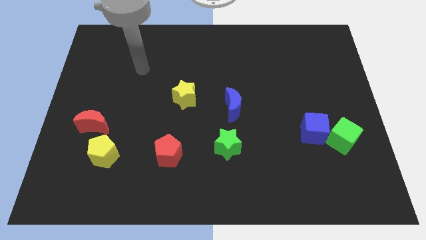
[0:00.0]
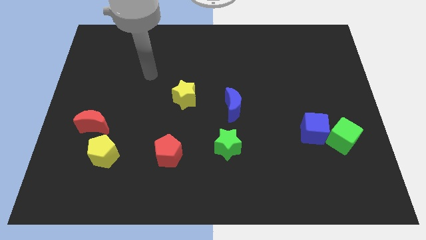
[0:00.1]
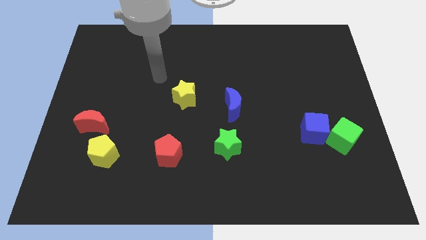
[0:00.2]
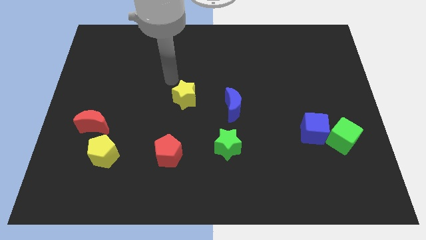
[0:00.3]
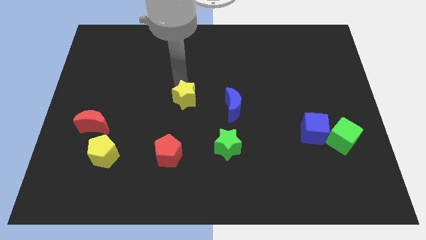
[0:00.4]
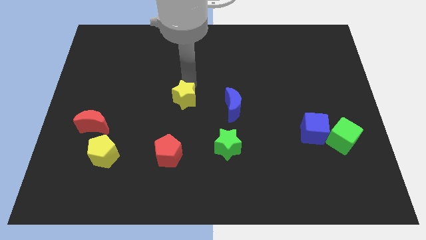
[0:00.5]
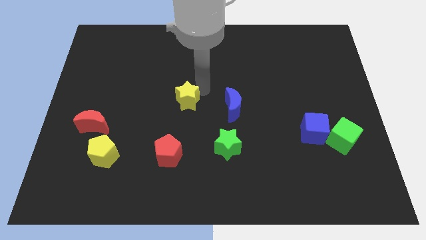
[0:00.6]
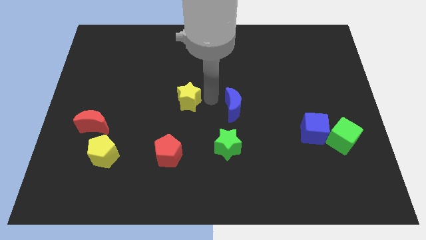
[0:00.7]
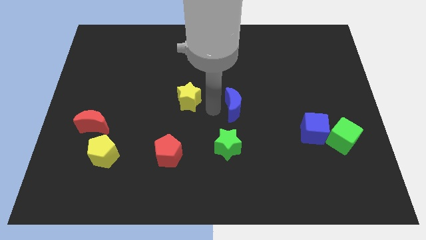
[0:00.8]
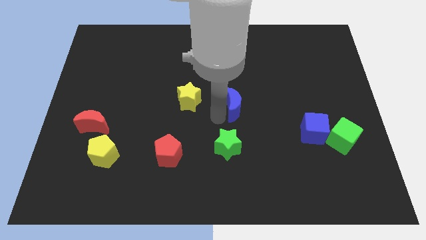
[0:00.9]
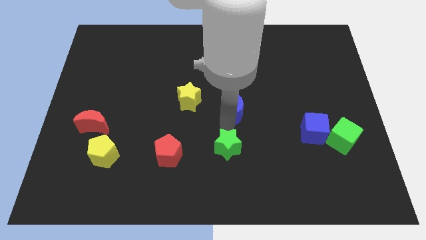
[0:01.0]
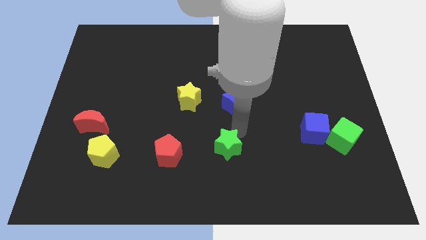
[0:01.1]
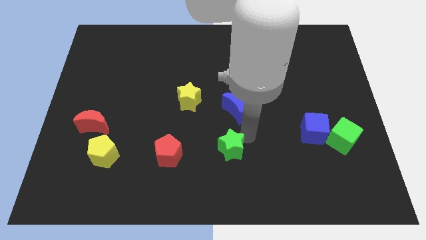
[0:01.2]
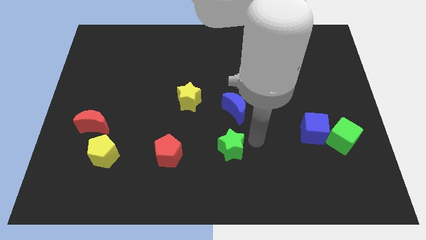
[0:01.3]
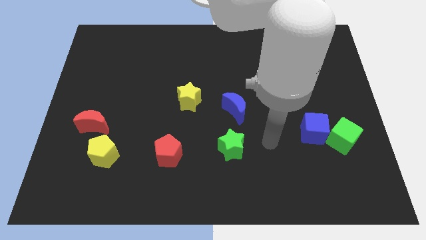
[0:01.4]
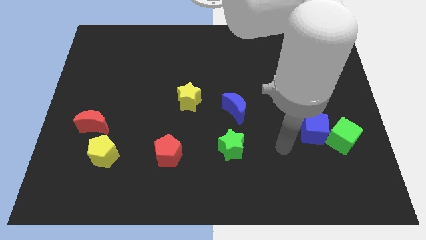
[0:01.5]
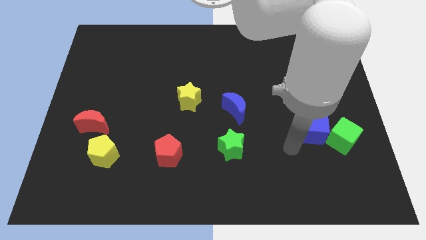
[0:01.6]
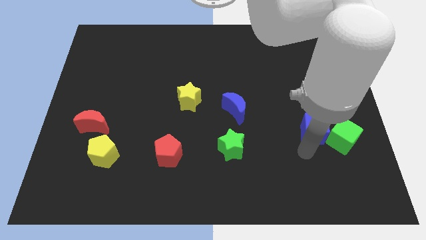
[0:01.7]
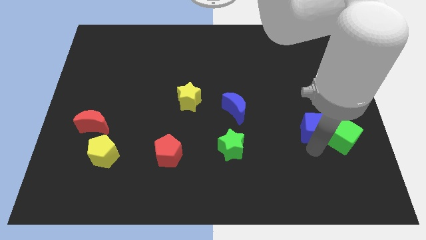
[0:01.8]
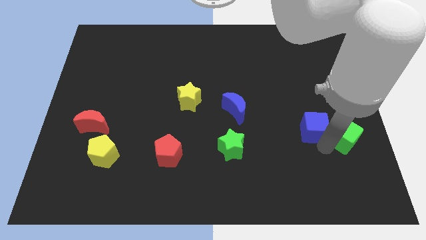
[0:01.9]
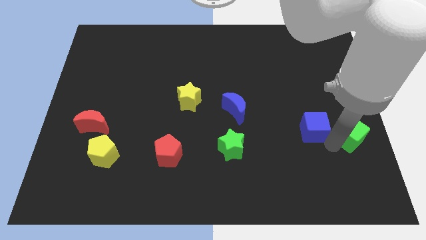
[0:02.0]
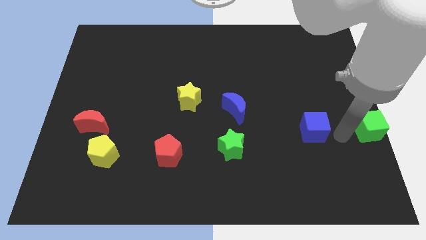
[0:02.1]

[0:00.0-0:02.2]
move the blue cube away from the green cube

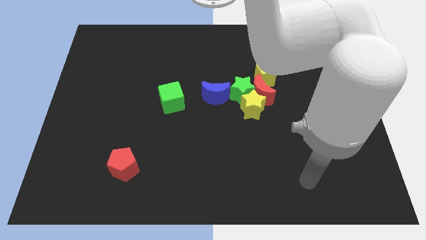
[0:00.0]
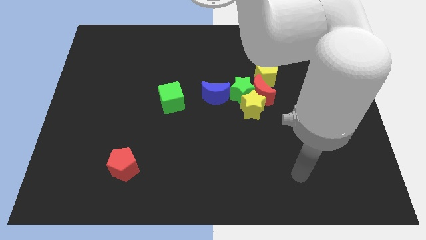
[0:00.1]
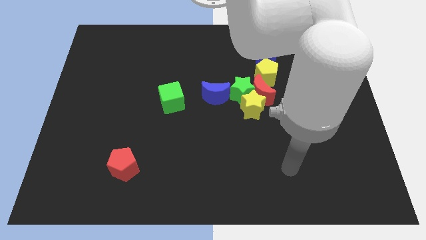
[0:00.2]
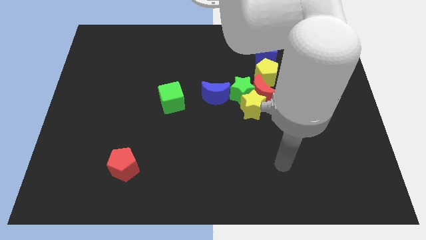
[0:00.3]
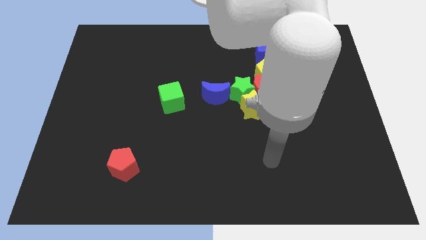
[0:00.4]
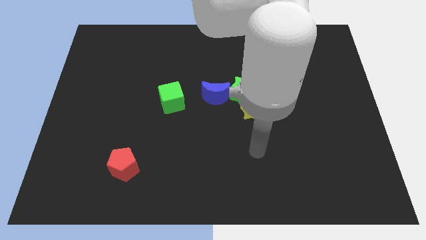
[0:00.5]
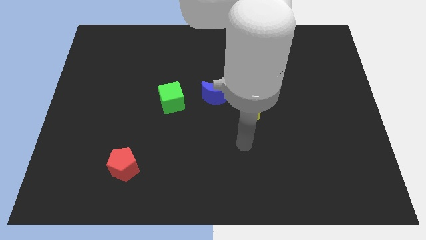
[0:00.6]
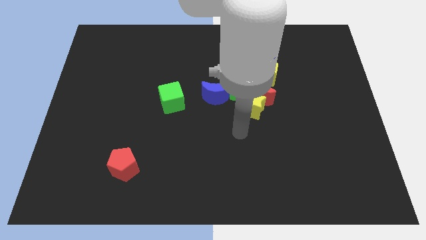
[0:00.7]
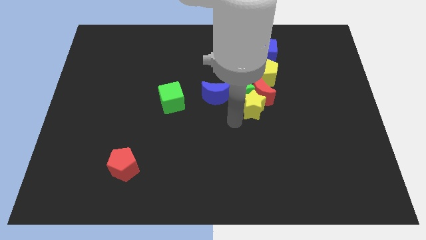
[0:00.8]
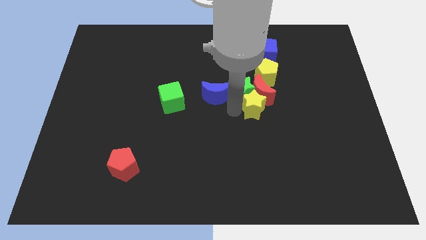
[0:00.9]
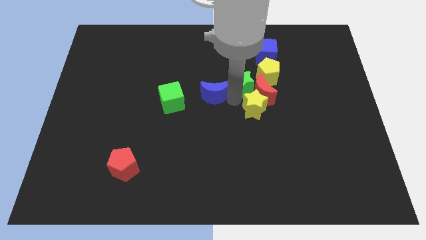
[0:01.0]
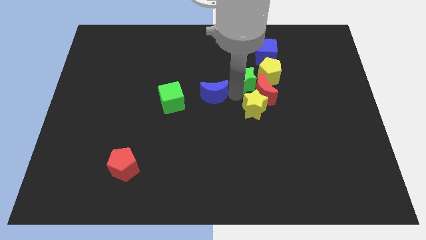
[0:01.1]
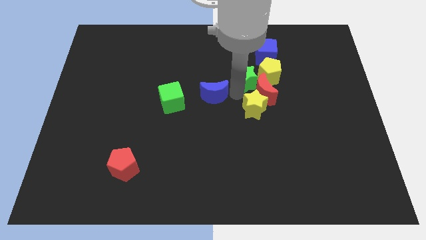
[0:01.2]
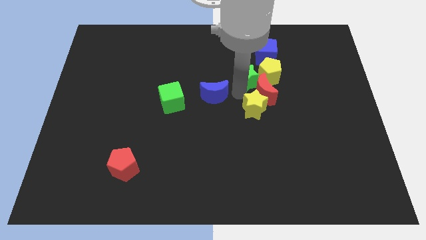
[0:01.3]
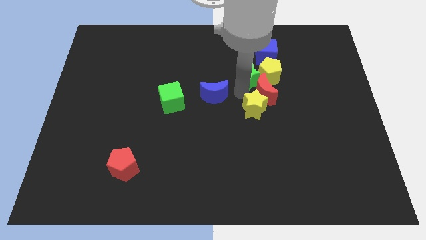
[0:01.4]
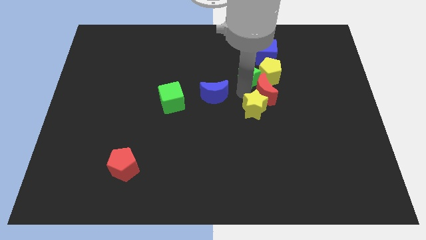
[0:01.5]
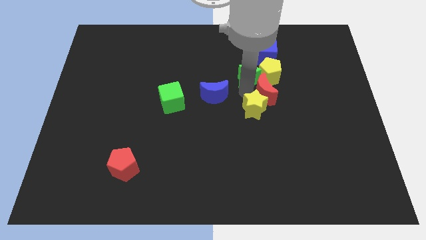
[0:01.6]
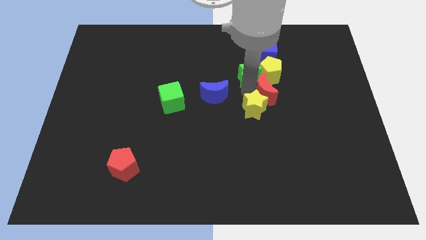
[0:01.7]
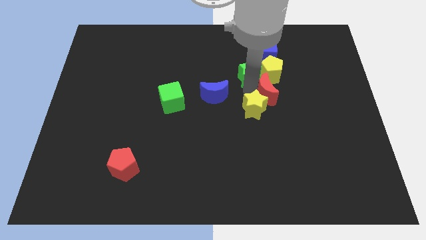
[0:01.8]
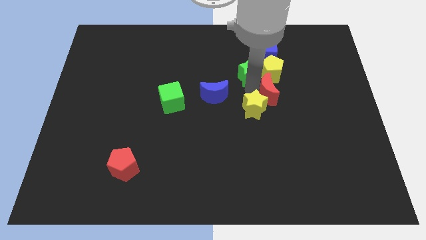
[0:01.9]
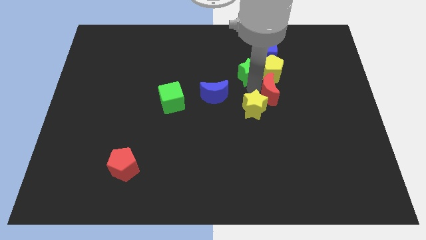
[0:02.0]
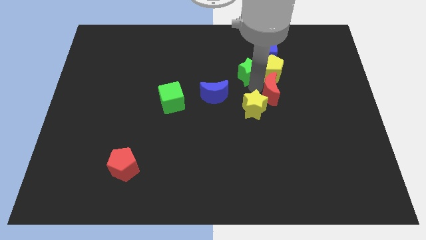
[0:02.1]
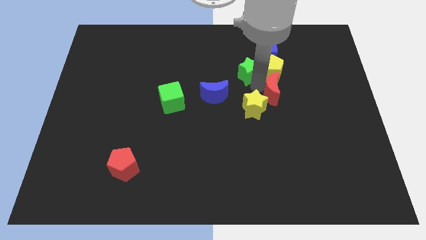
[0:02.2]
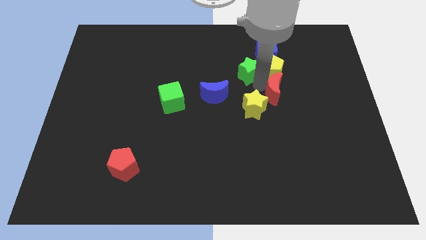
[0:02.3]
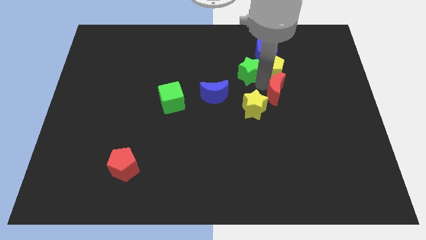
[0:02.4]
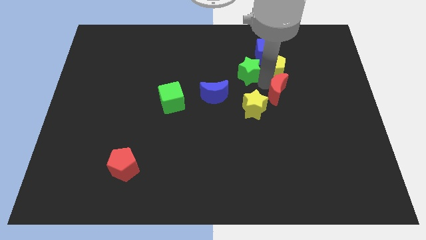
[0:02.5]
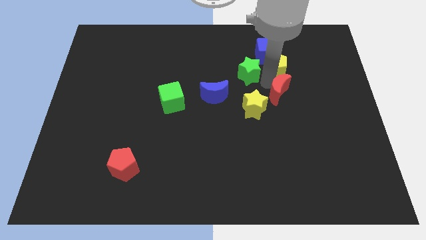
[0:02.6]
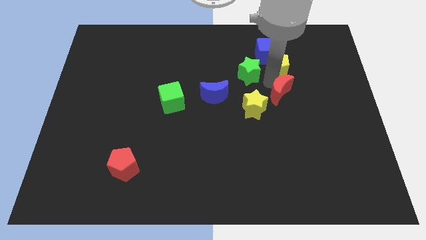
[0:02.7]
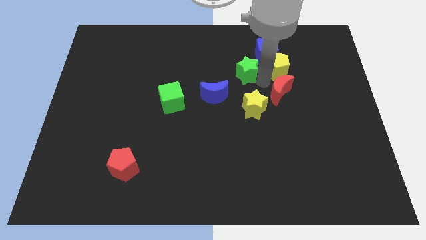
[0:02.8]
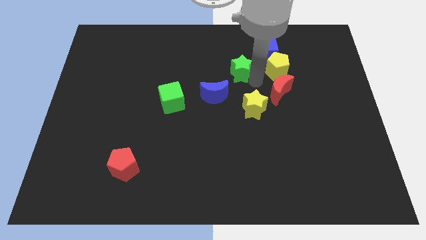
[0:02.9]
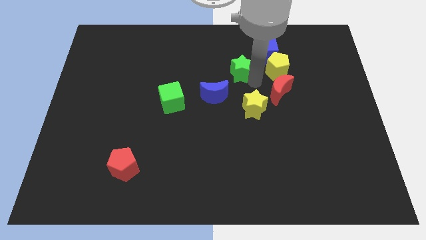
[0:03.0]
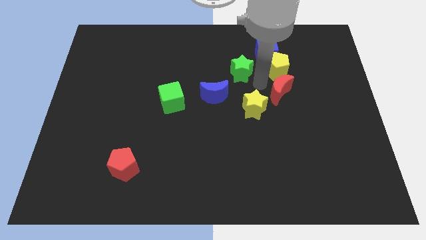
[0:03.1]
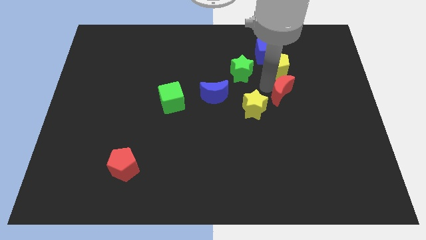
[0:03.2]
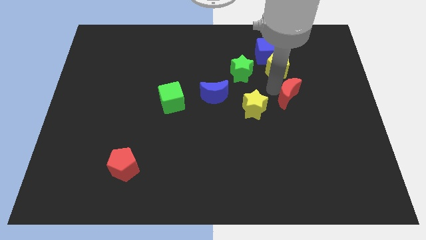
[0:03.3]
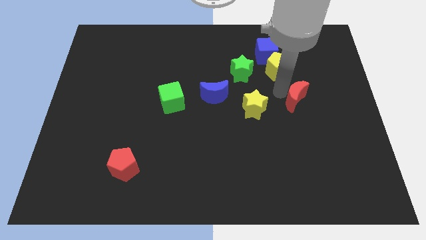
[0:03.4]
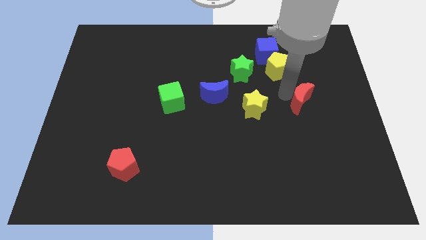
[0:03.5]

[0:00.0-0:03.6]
pull the red moon apart from the green star, yellow star, and yellow pentagon

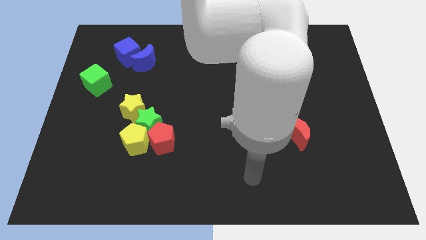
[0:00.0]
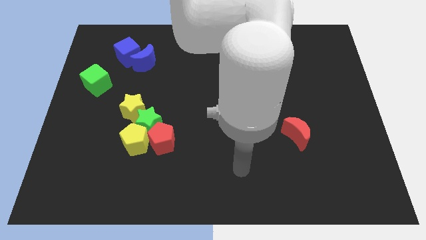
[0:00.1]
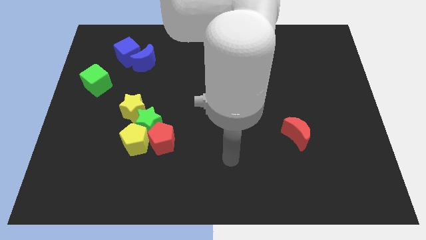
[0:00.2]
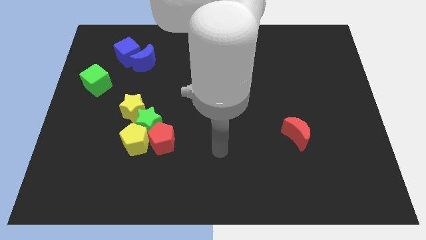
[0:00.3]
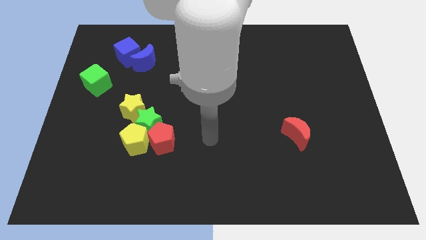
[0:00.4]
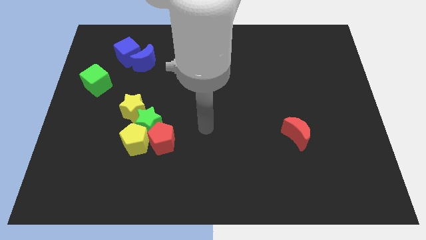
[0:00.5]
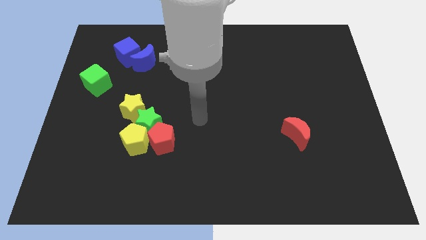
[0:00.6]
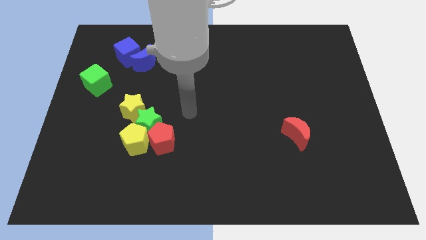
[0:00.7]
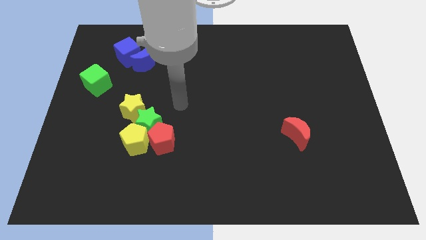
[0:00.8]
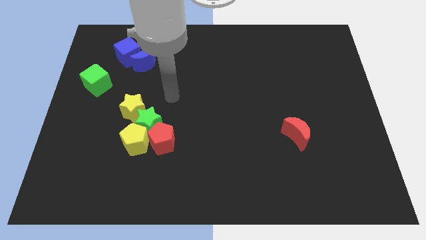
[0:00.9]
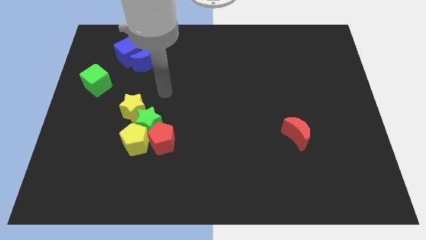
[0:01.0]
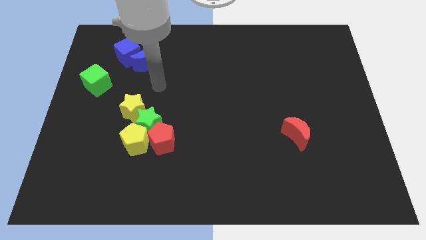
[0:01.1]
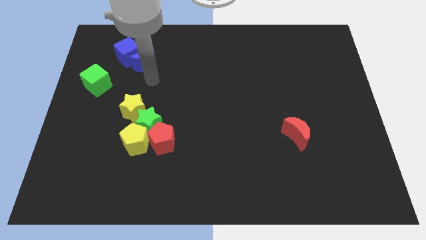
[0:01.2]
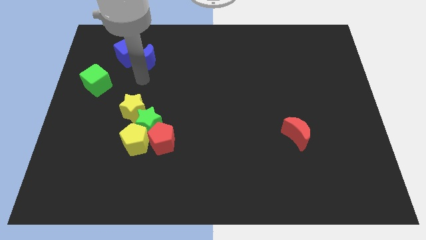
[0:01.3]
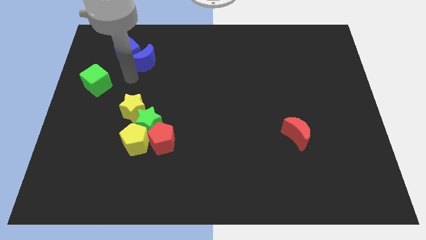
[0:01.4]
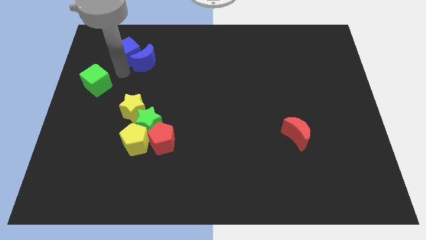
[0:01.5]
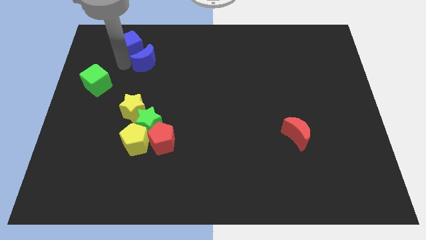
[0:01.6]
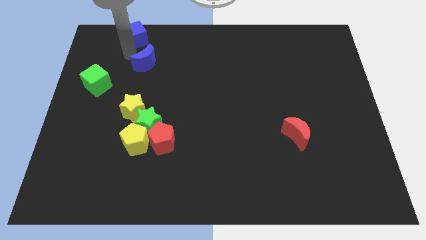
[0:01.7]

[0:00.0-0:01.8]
move the blue moon away from the blue cube

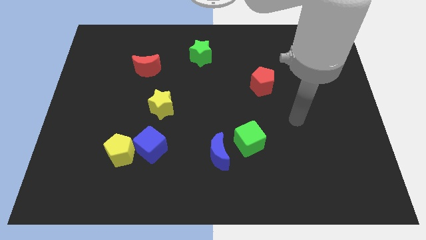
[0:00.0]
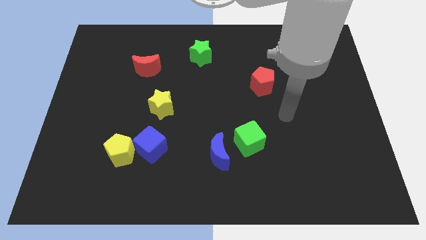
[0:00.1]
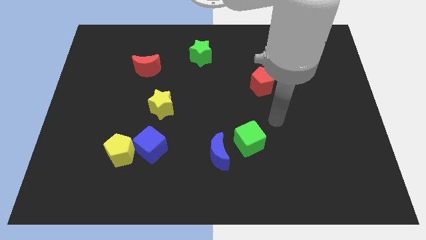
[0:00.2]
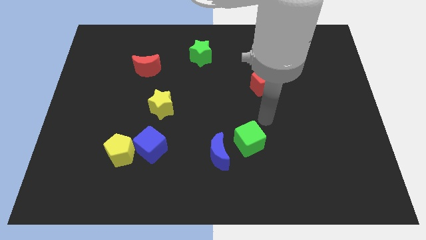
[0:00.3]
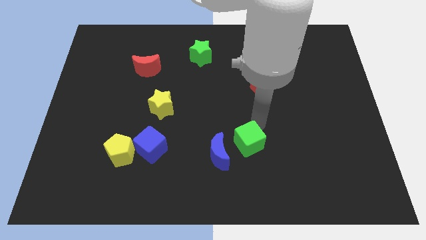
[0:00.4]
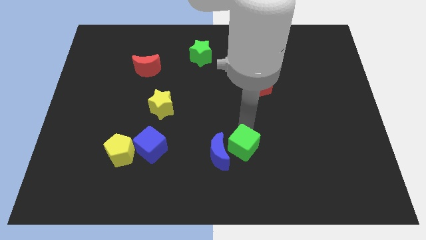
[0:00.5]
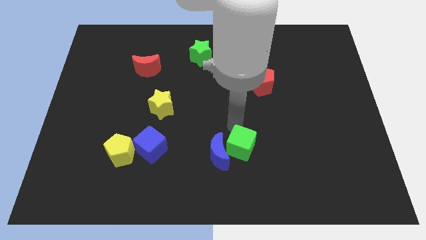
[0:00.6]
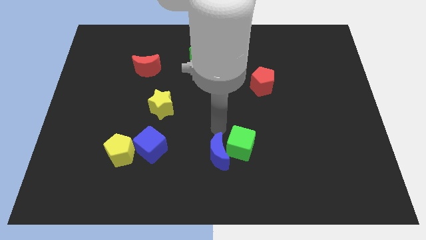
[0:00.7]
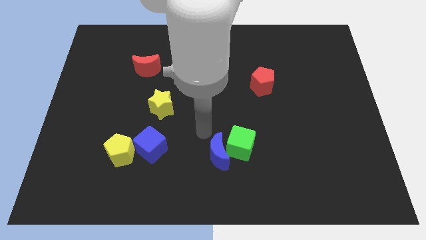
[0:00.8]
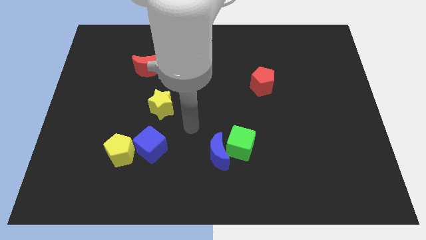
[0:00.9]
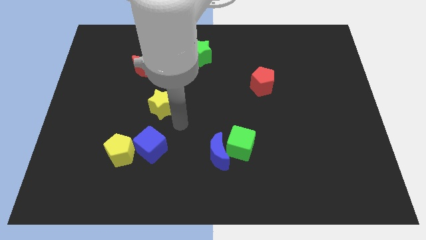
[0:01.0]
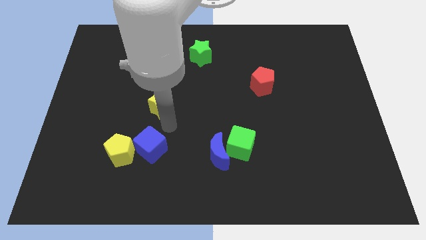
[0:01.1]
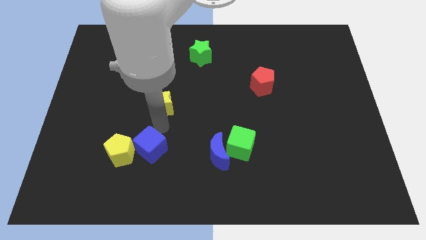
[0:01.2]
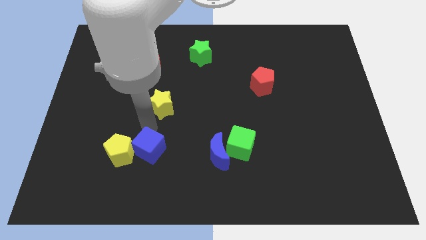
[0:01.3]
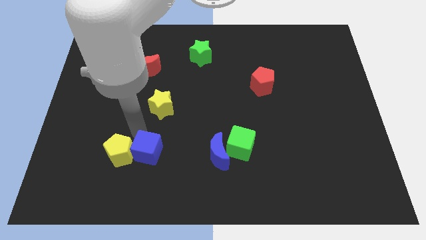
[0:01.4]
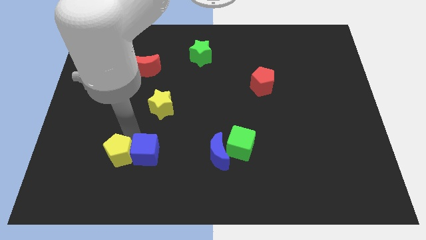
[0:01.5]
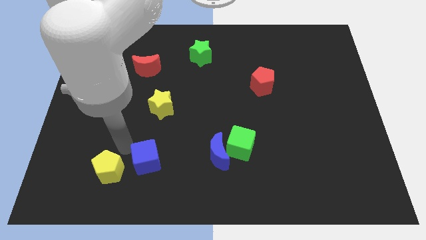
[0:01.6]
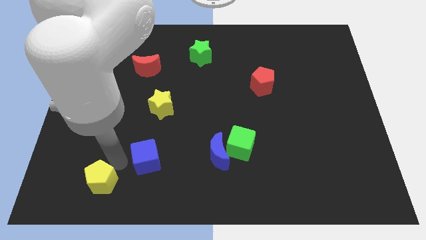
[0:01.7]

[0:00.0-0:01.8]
pull the blue cube apart from the yellow pentagon
